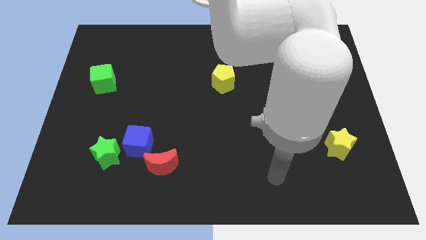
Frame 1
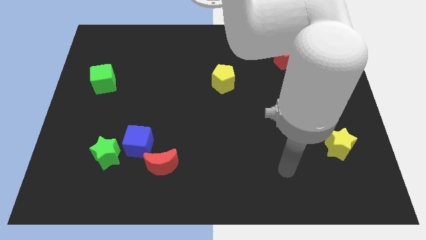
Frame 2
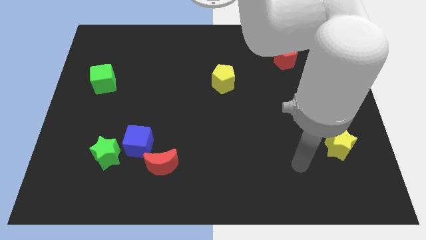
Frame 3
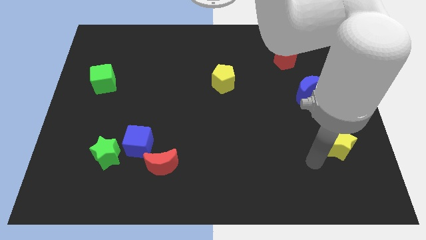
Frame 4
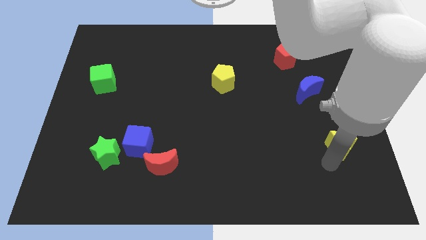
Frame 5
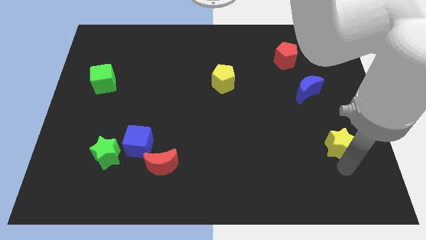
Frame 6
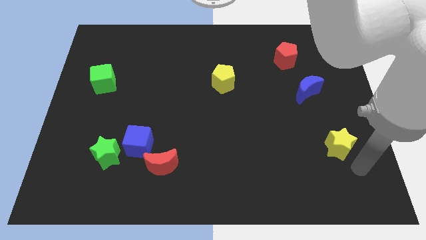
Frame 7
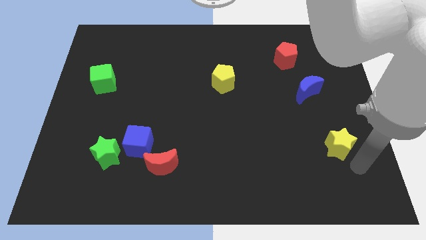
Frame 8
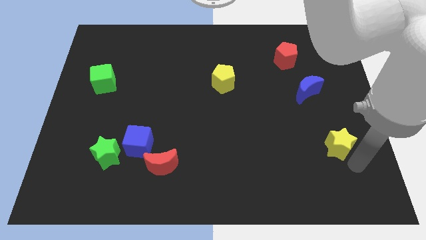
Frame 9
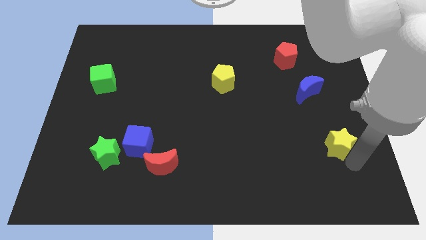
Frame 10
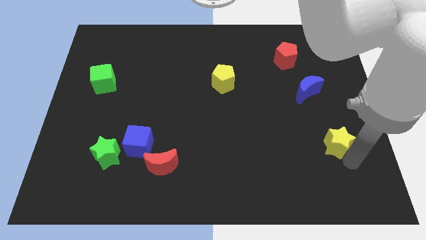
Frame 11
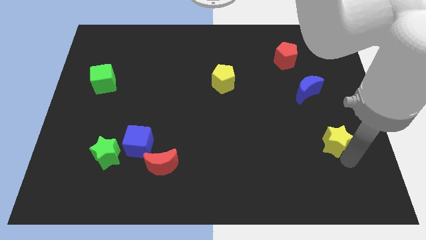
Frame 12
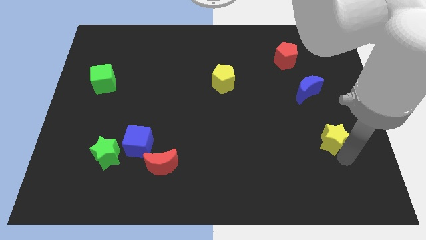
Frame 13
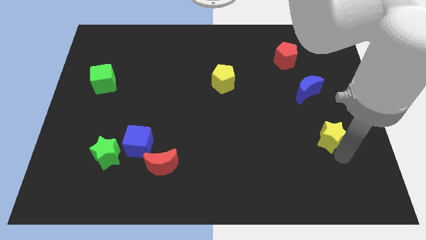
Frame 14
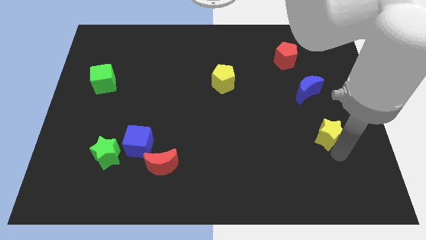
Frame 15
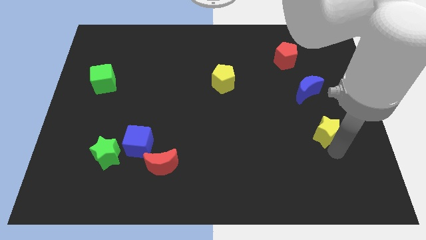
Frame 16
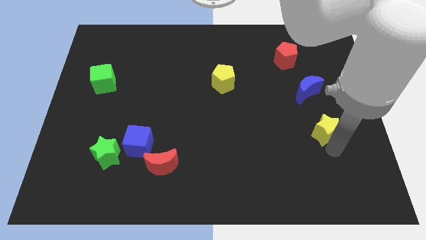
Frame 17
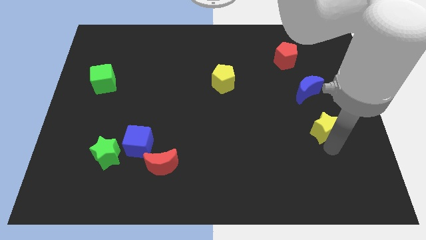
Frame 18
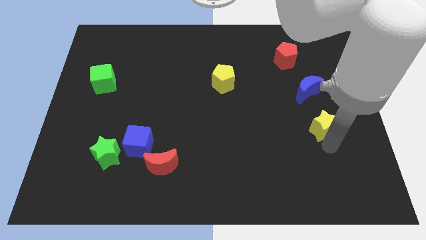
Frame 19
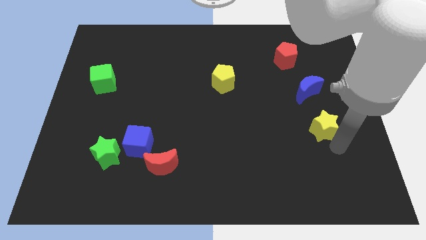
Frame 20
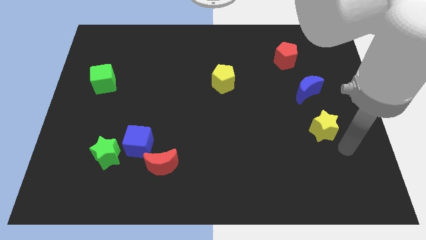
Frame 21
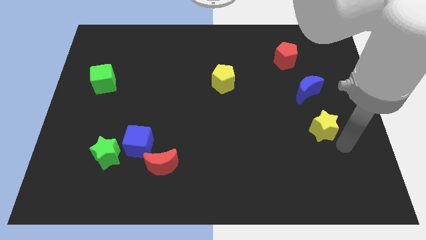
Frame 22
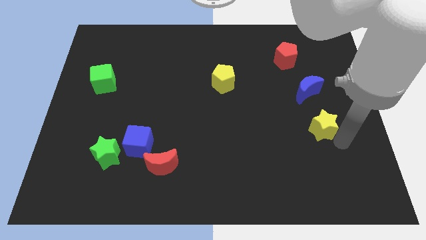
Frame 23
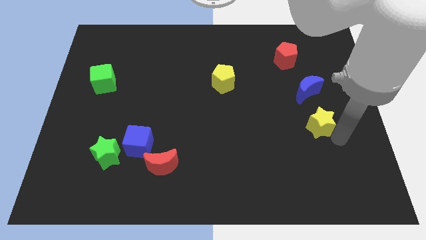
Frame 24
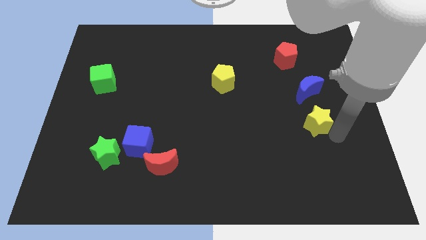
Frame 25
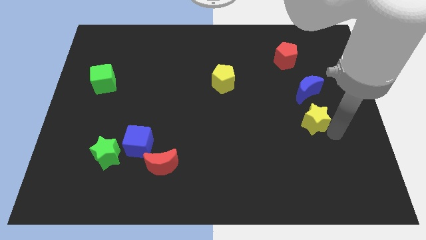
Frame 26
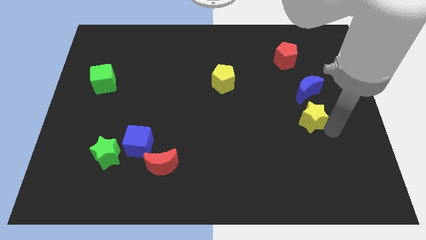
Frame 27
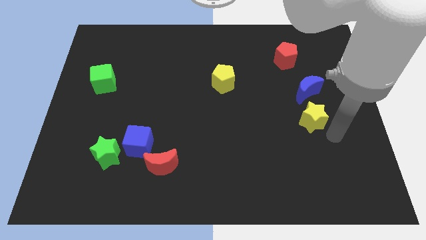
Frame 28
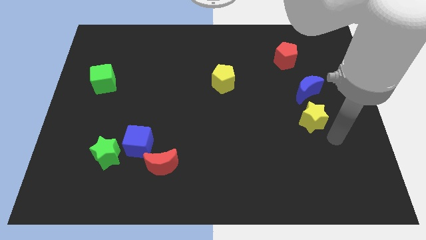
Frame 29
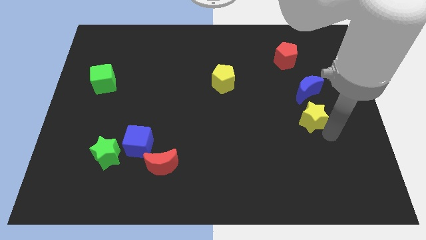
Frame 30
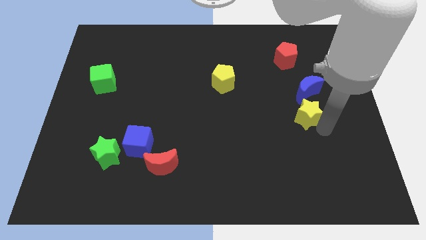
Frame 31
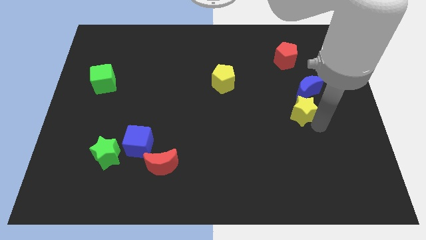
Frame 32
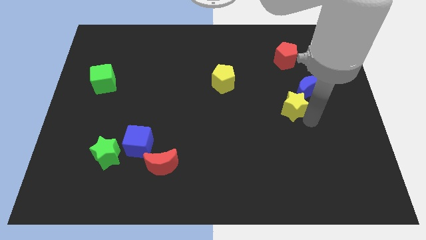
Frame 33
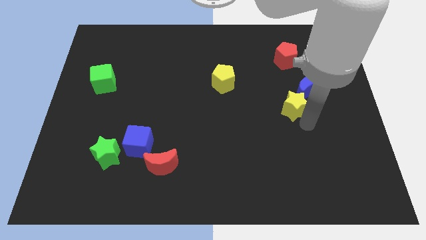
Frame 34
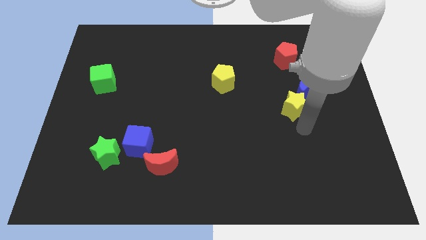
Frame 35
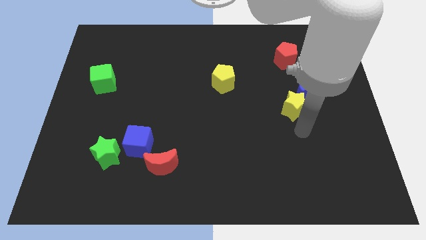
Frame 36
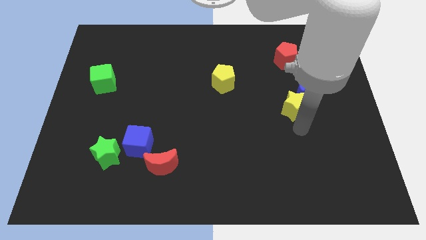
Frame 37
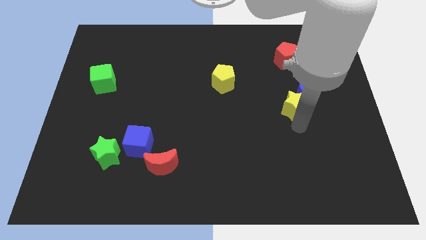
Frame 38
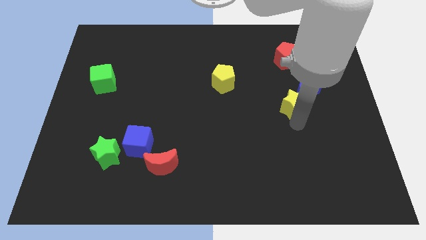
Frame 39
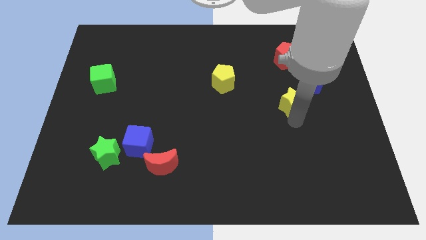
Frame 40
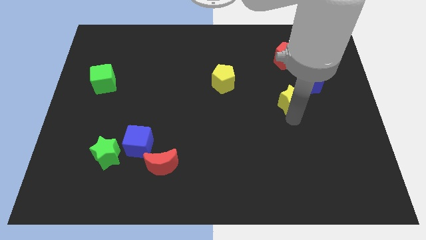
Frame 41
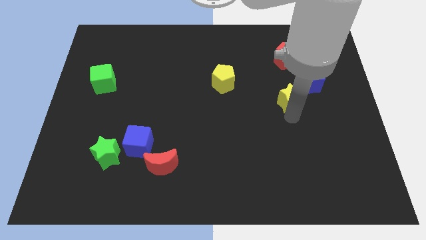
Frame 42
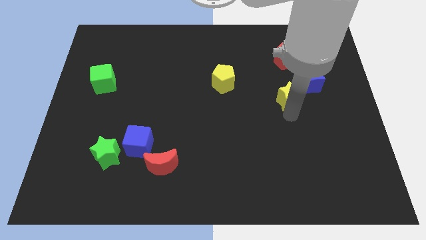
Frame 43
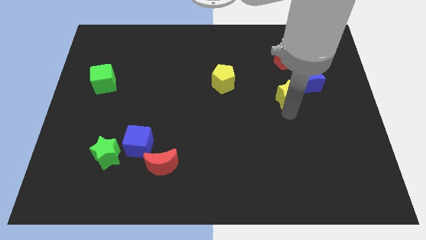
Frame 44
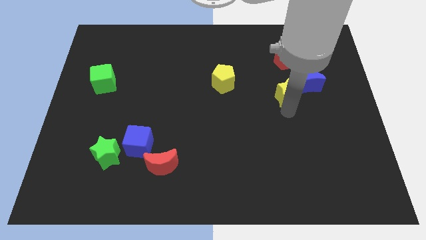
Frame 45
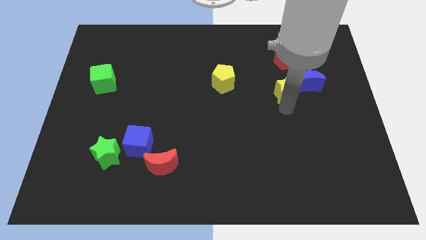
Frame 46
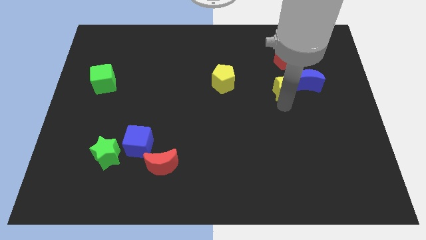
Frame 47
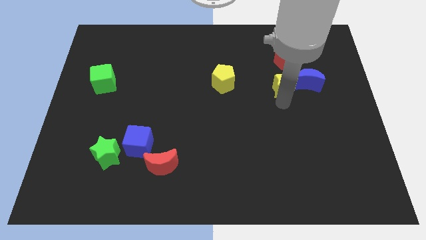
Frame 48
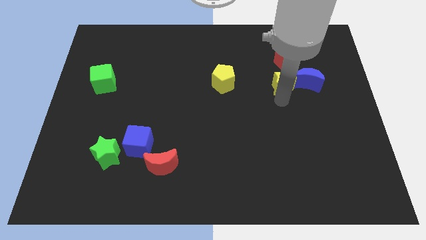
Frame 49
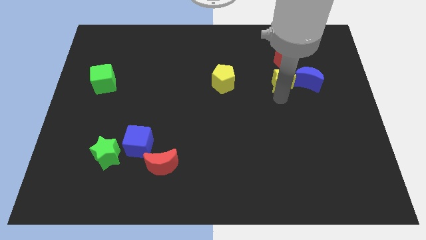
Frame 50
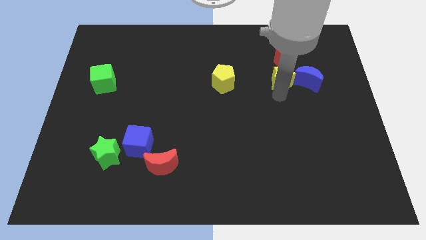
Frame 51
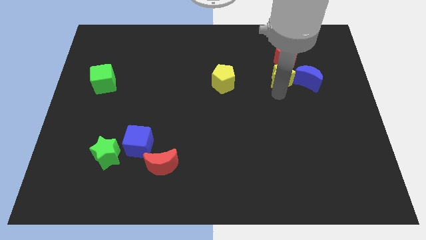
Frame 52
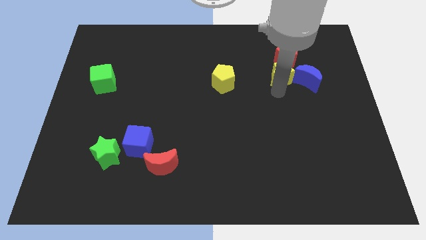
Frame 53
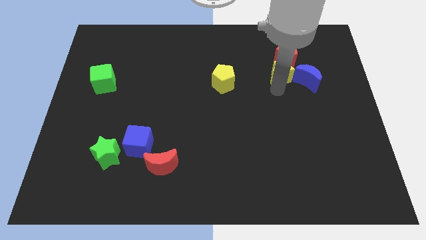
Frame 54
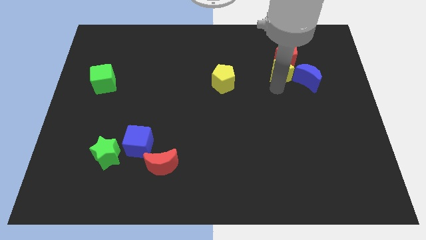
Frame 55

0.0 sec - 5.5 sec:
move the yellow star towards the red pentagon

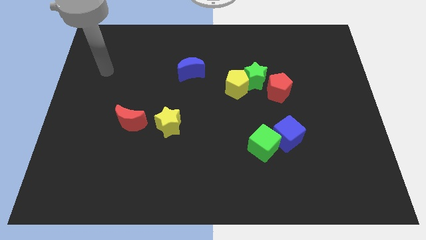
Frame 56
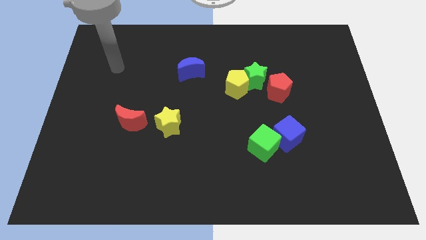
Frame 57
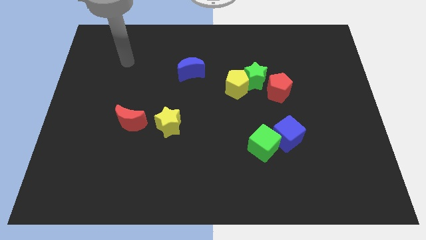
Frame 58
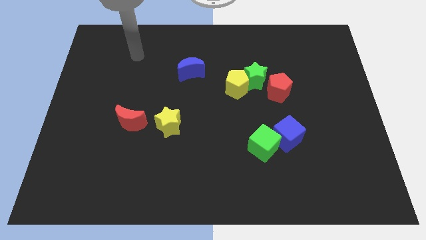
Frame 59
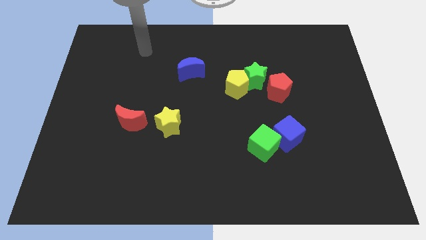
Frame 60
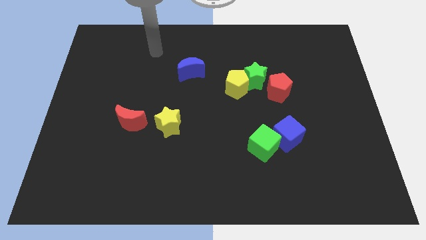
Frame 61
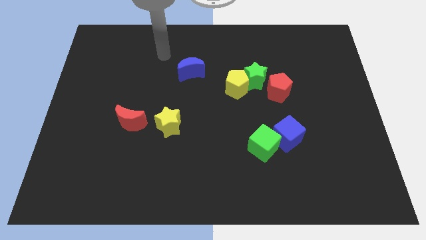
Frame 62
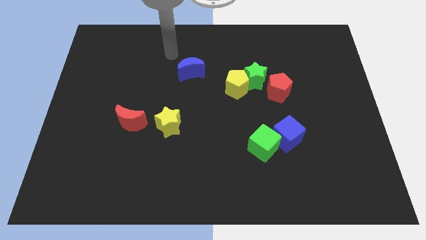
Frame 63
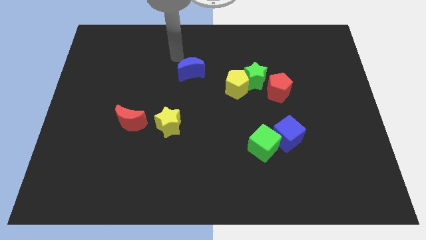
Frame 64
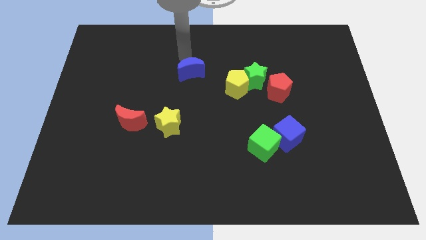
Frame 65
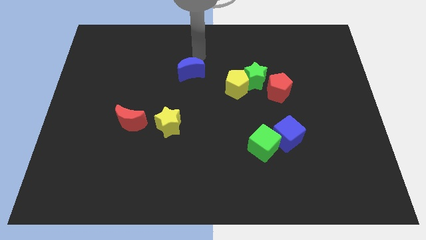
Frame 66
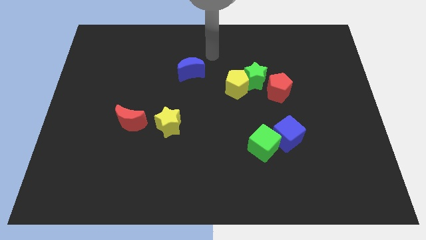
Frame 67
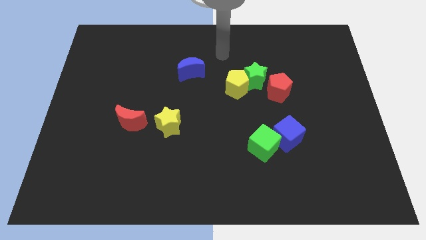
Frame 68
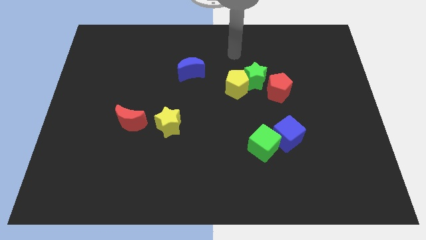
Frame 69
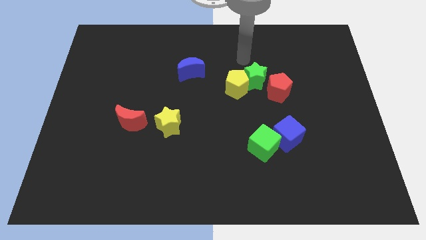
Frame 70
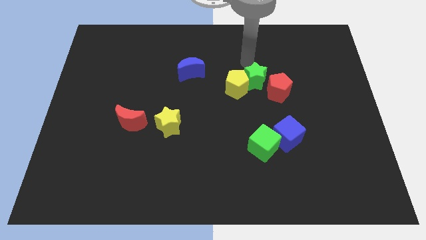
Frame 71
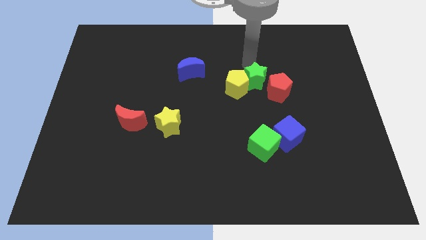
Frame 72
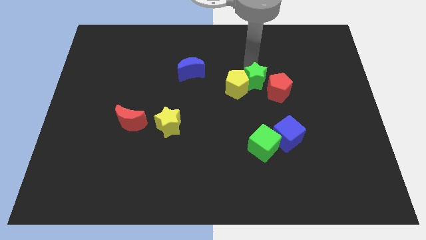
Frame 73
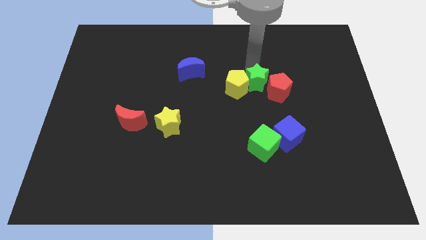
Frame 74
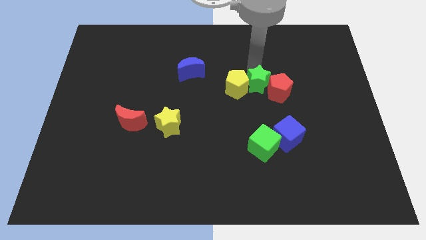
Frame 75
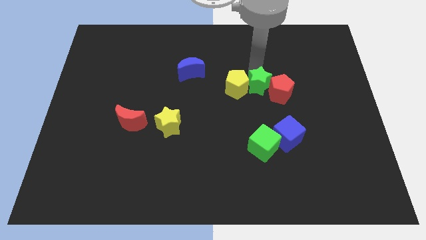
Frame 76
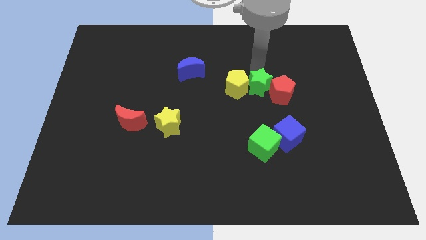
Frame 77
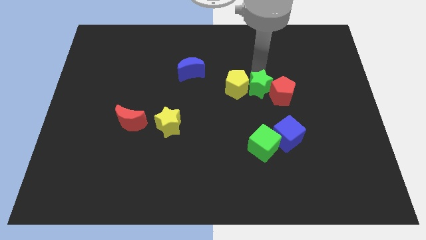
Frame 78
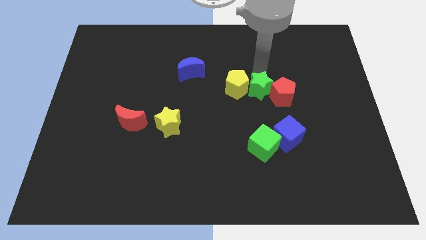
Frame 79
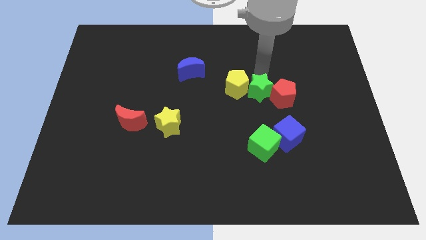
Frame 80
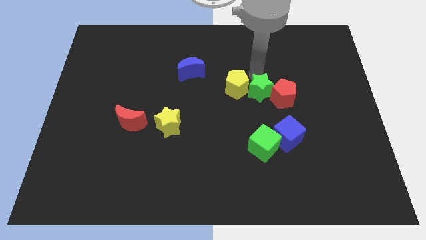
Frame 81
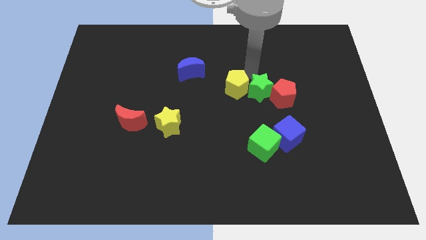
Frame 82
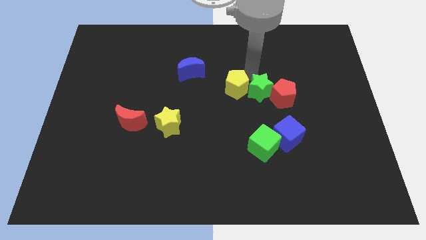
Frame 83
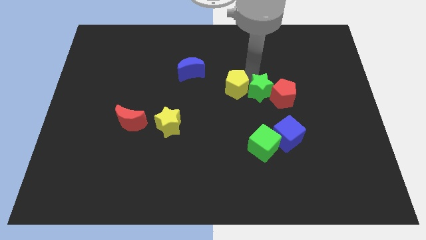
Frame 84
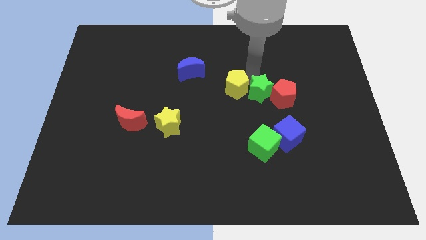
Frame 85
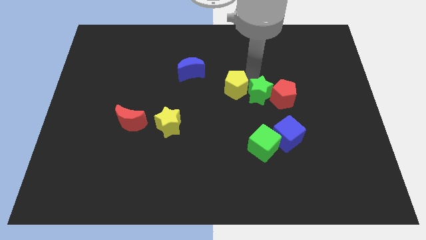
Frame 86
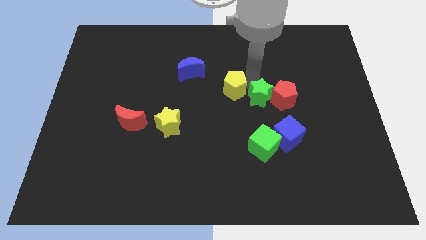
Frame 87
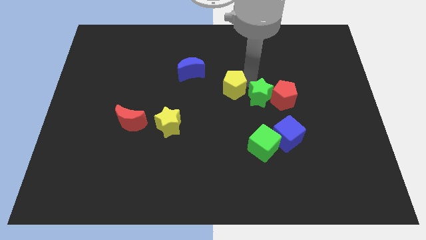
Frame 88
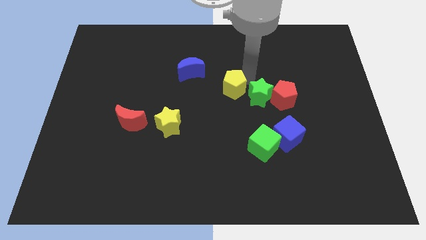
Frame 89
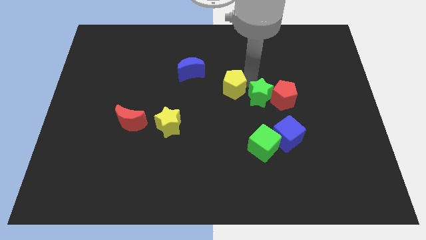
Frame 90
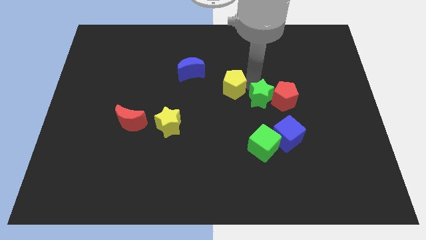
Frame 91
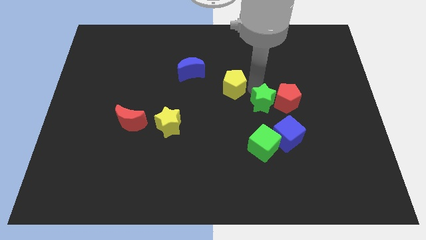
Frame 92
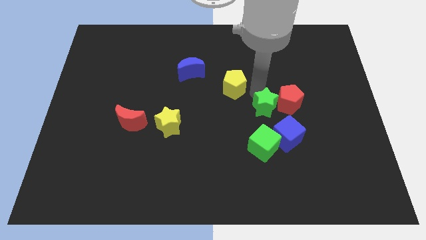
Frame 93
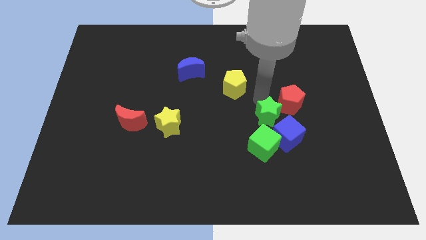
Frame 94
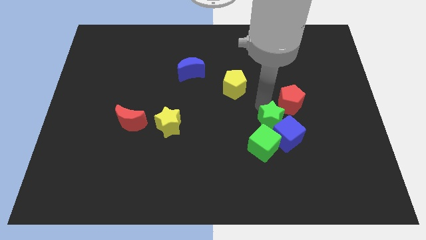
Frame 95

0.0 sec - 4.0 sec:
slide the green star next to the blue cube
